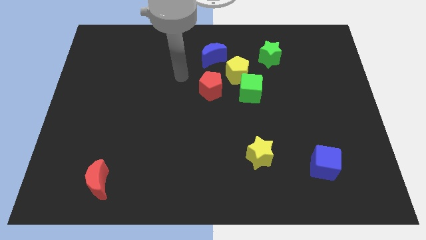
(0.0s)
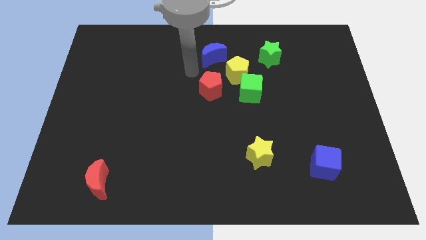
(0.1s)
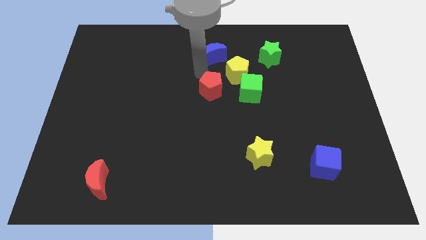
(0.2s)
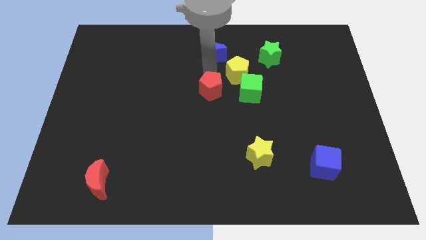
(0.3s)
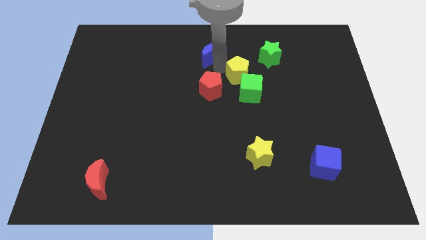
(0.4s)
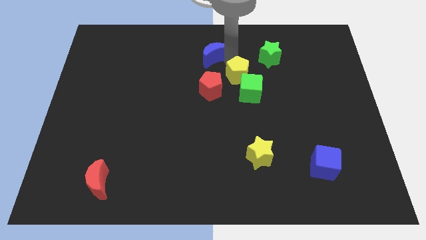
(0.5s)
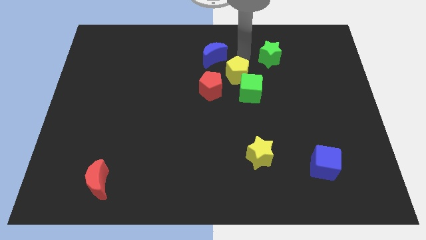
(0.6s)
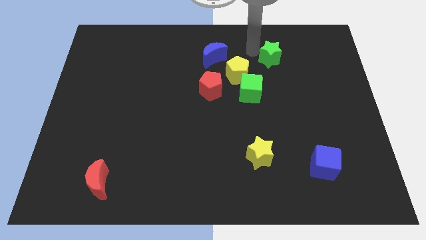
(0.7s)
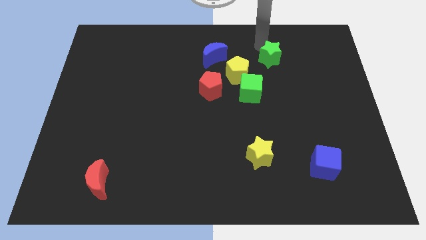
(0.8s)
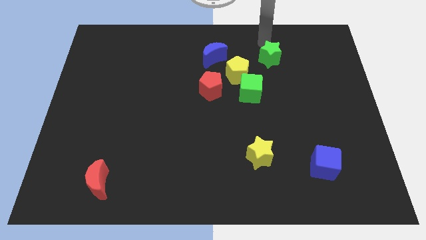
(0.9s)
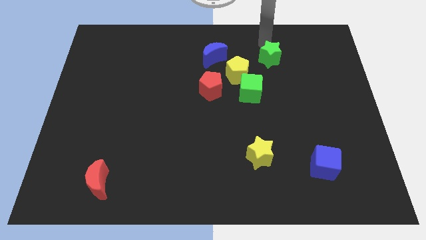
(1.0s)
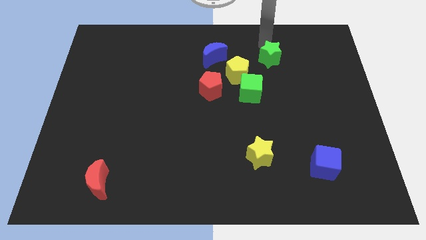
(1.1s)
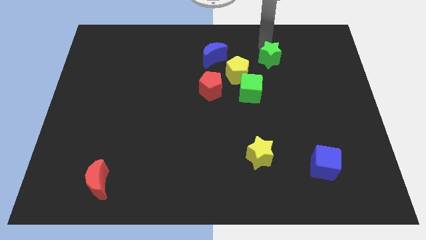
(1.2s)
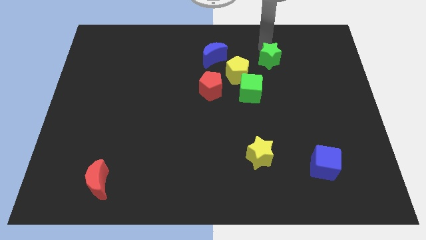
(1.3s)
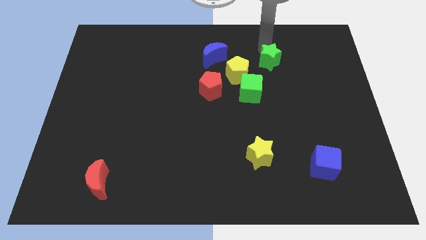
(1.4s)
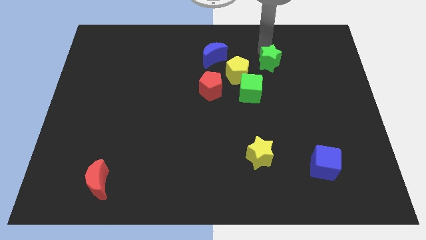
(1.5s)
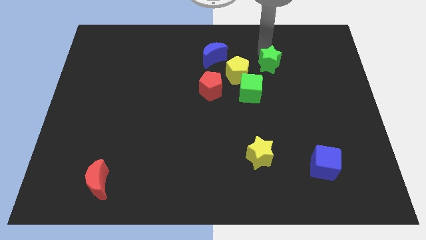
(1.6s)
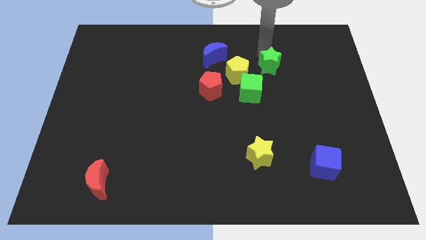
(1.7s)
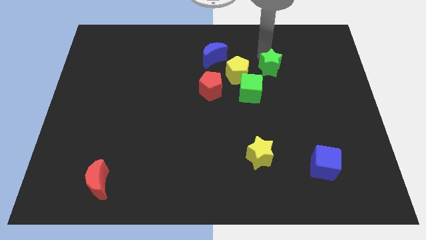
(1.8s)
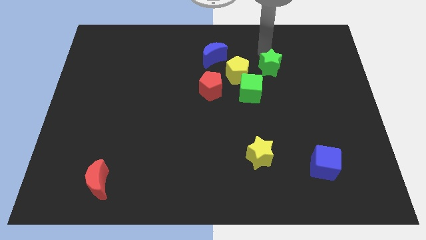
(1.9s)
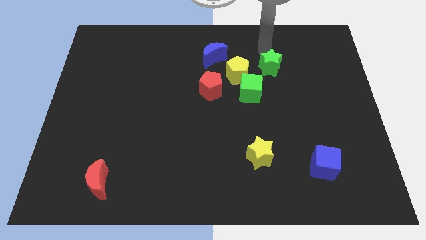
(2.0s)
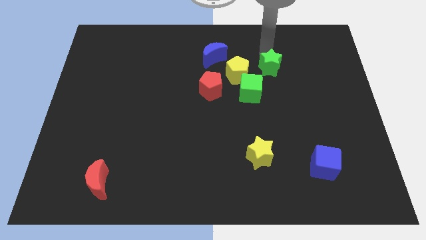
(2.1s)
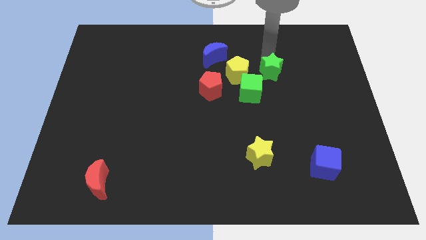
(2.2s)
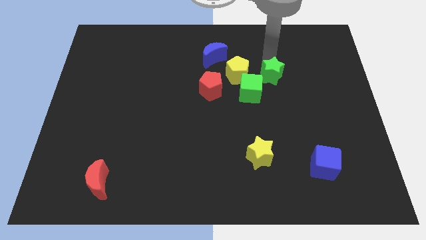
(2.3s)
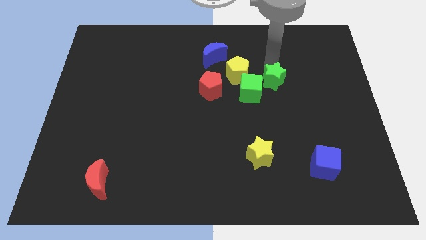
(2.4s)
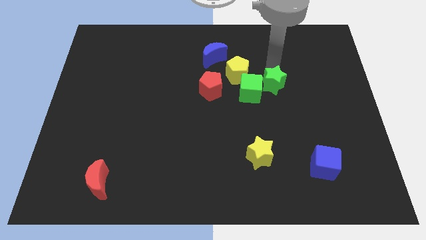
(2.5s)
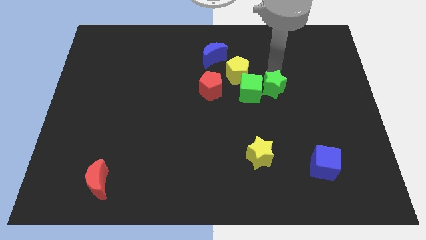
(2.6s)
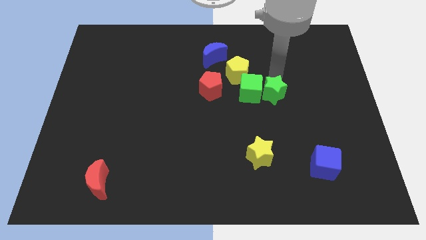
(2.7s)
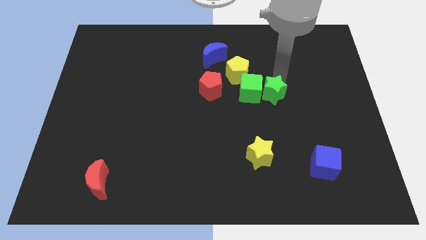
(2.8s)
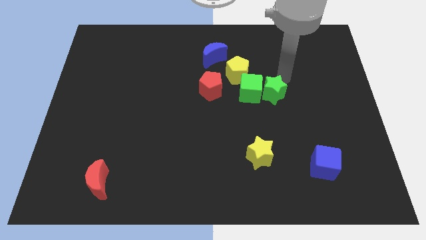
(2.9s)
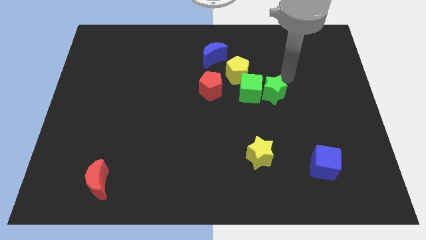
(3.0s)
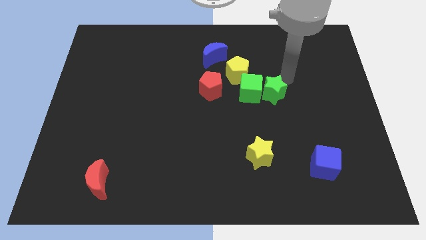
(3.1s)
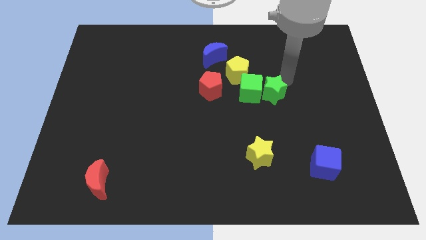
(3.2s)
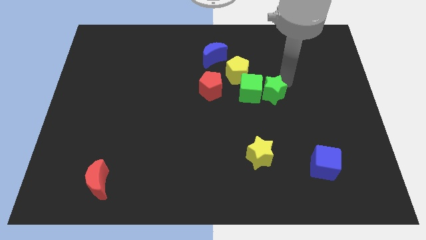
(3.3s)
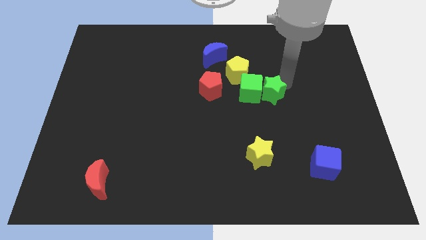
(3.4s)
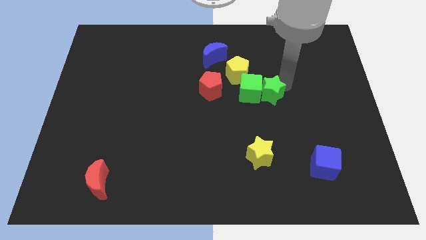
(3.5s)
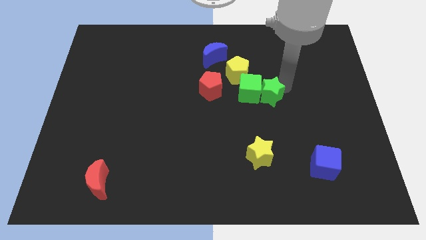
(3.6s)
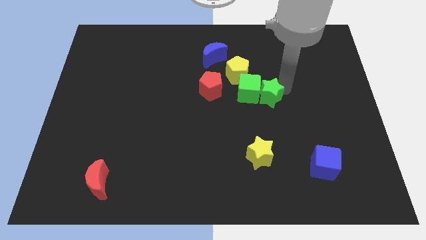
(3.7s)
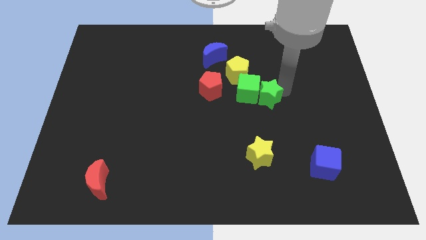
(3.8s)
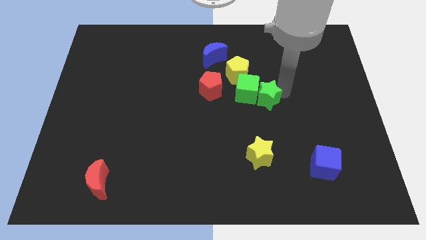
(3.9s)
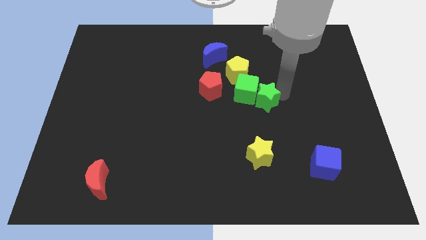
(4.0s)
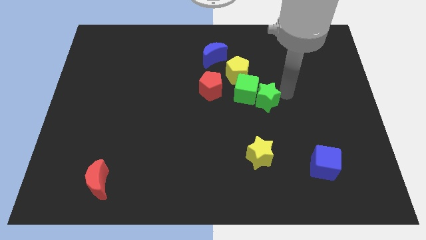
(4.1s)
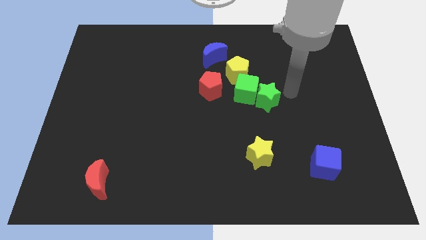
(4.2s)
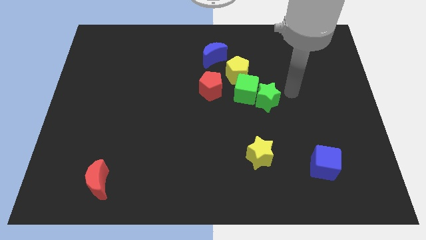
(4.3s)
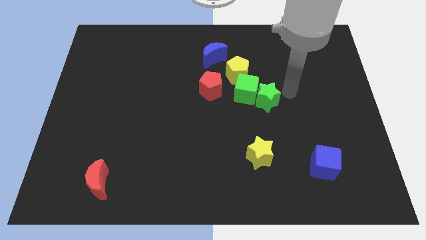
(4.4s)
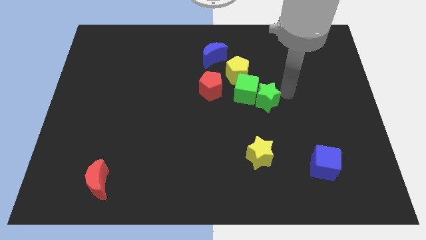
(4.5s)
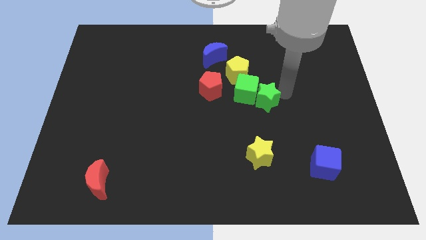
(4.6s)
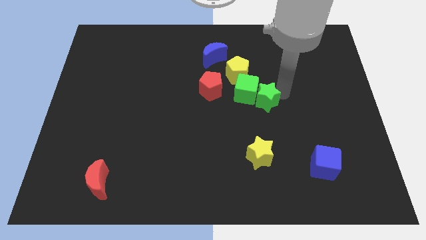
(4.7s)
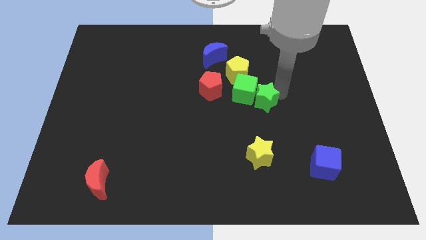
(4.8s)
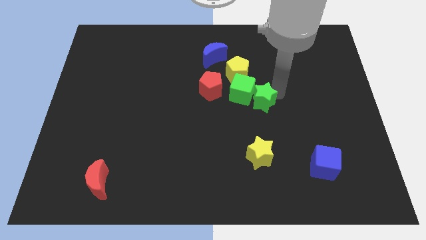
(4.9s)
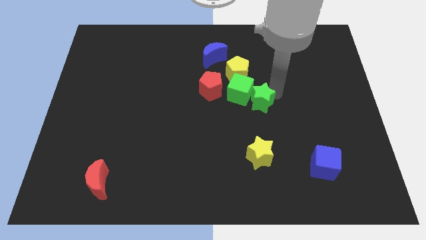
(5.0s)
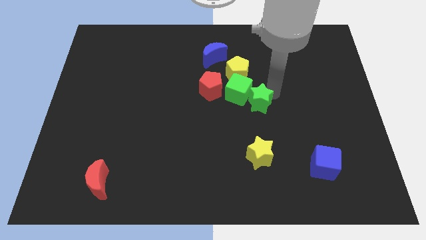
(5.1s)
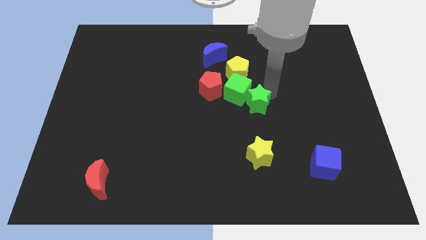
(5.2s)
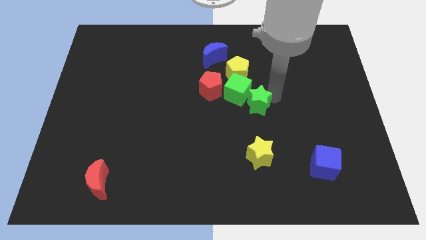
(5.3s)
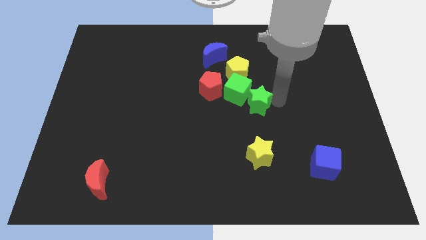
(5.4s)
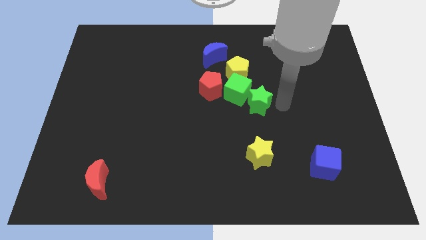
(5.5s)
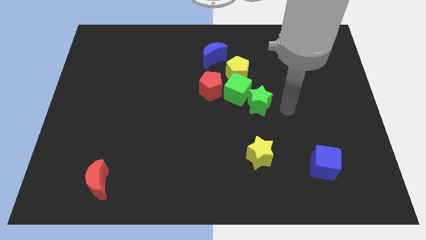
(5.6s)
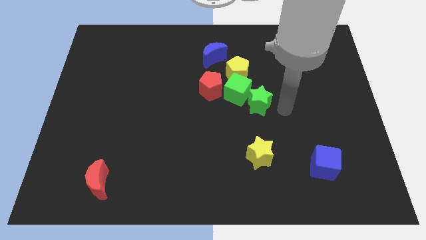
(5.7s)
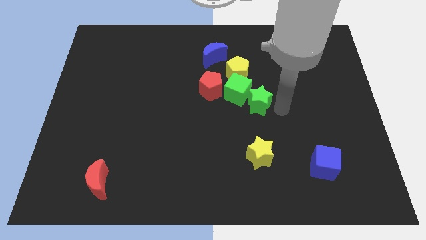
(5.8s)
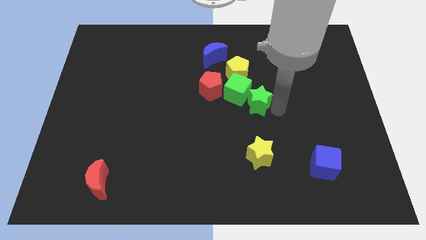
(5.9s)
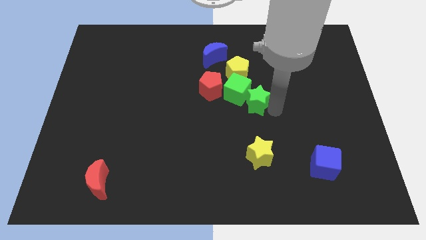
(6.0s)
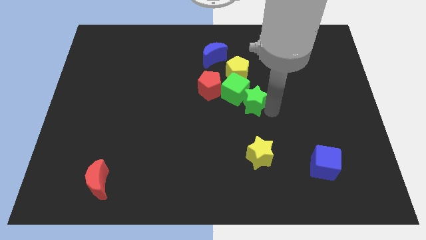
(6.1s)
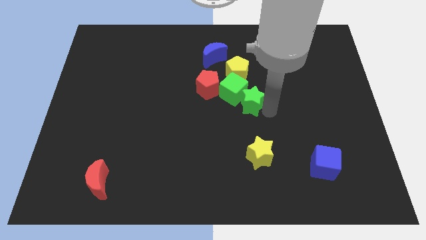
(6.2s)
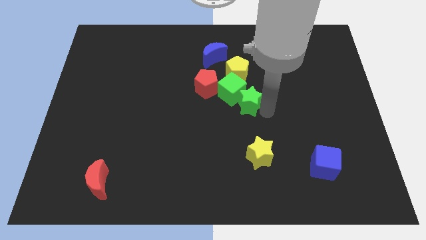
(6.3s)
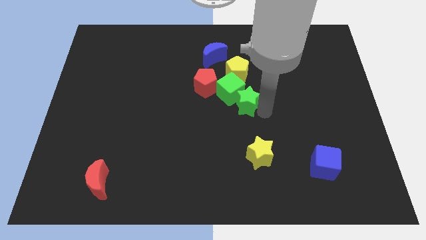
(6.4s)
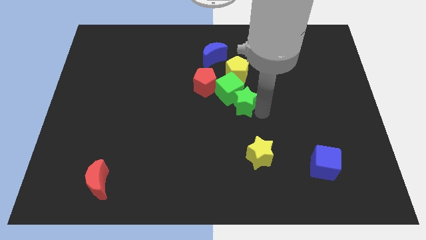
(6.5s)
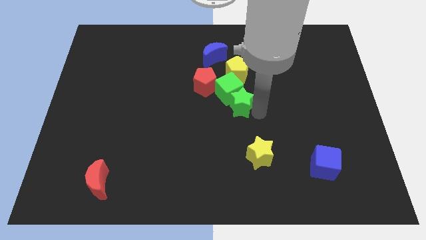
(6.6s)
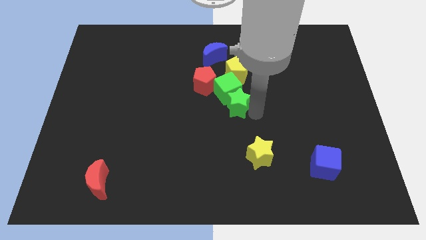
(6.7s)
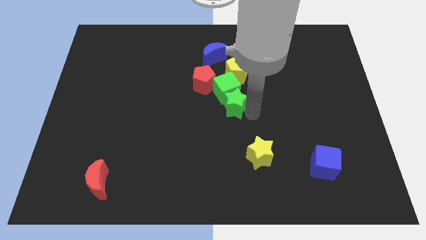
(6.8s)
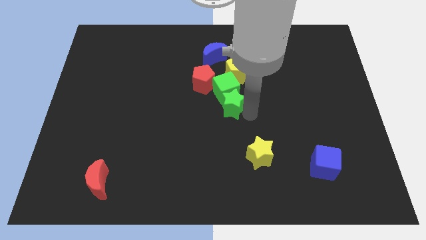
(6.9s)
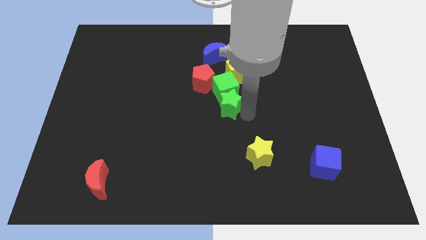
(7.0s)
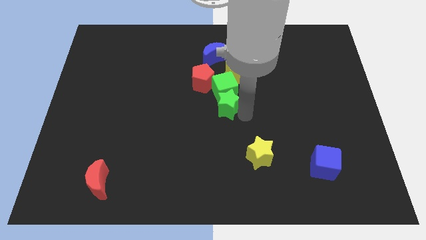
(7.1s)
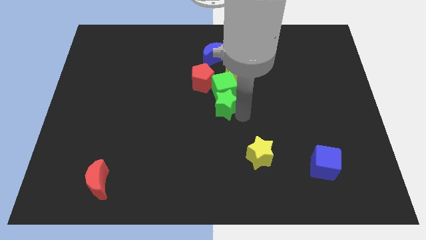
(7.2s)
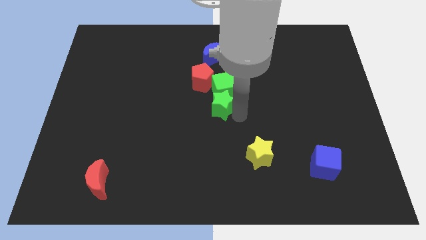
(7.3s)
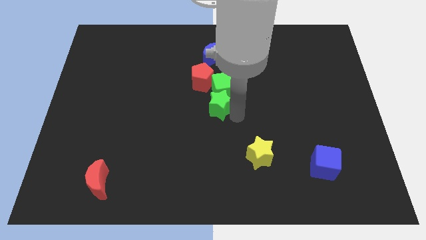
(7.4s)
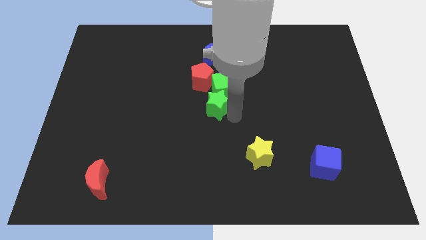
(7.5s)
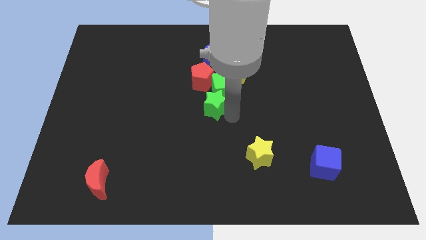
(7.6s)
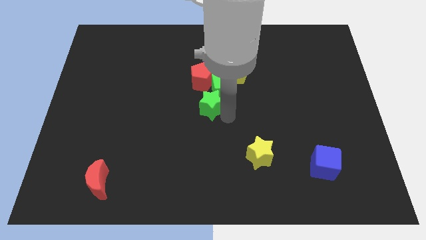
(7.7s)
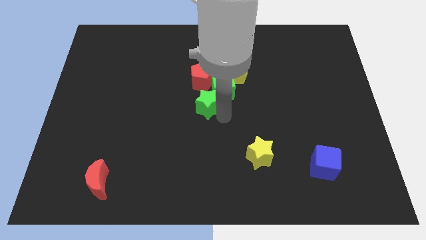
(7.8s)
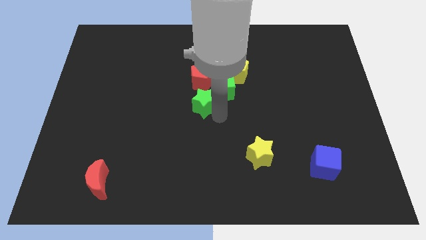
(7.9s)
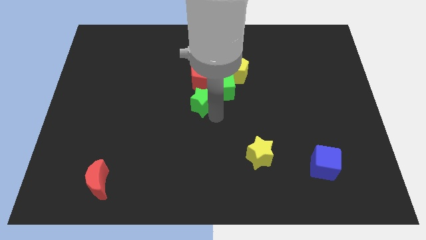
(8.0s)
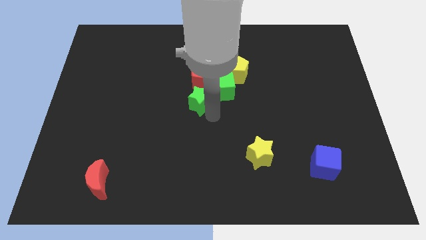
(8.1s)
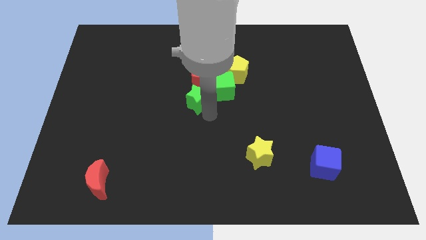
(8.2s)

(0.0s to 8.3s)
push the green star diagonally down and to the left of the red pentagon
